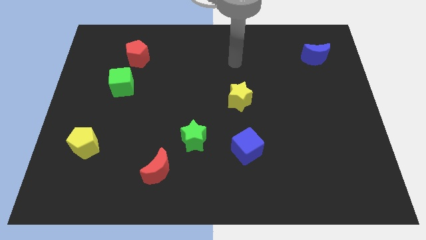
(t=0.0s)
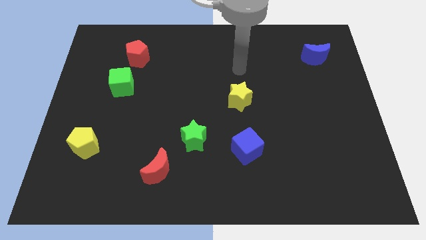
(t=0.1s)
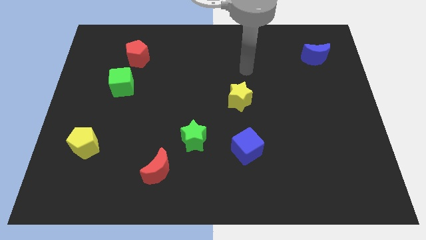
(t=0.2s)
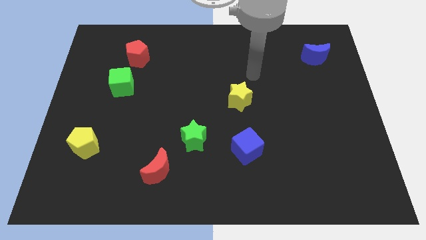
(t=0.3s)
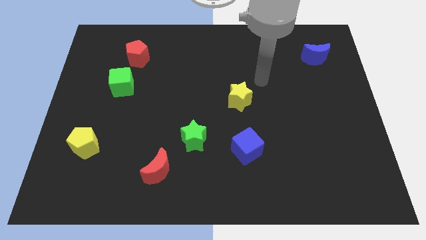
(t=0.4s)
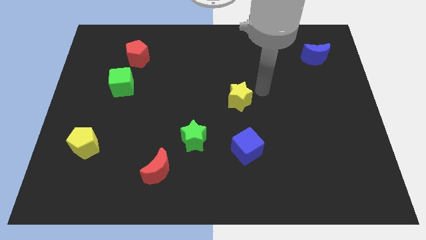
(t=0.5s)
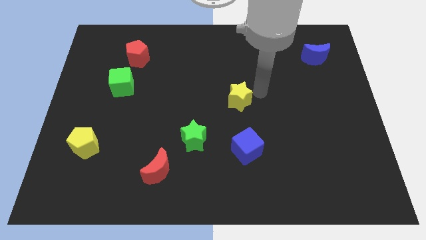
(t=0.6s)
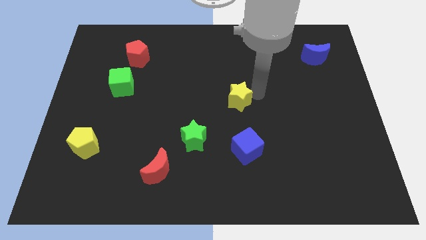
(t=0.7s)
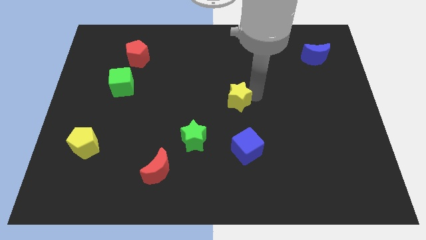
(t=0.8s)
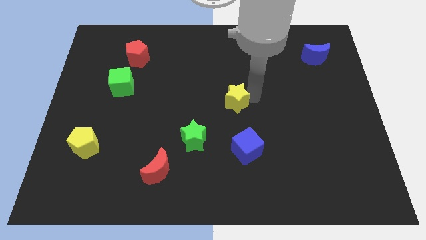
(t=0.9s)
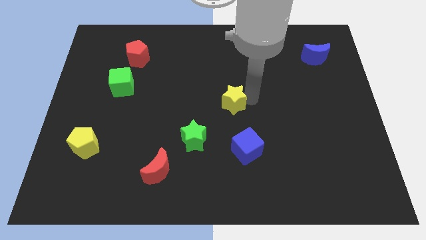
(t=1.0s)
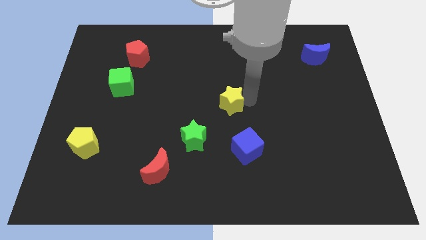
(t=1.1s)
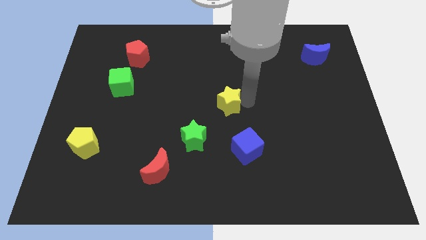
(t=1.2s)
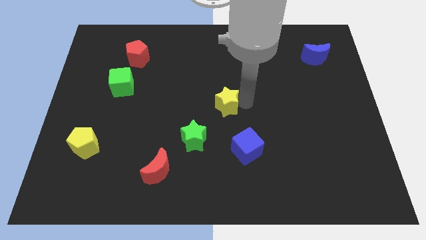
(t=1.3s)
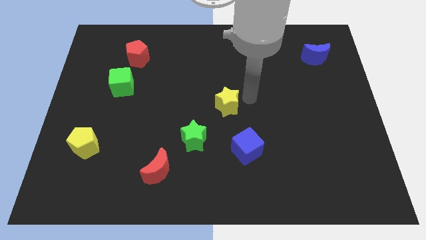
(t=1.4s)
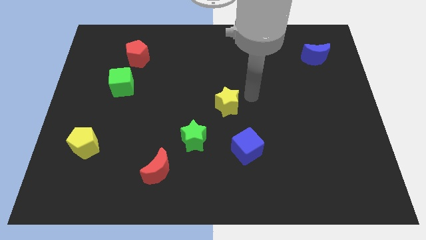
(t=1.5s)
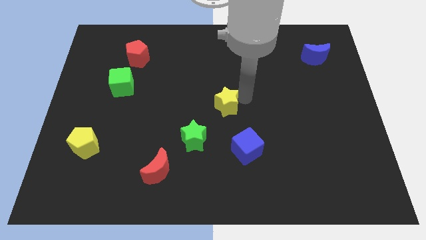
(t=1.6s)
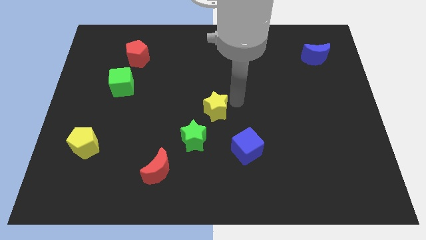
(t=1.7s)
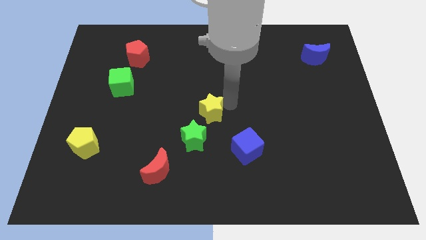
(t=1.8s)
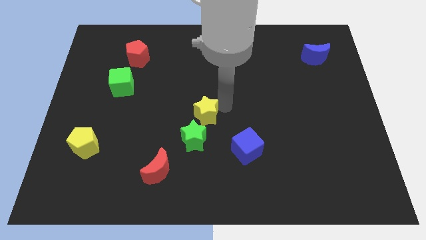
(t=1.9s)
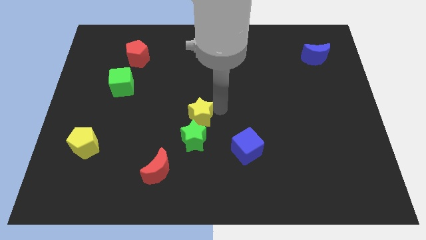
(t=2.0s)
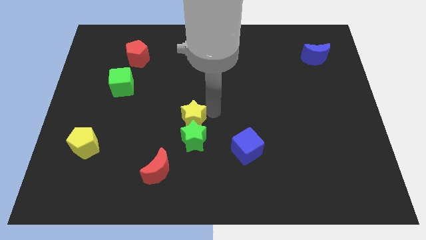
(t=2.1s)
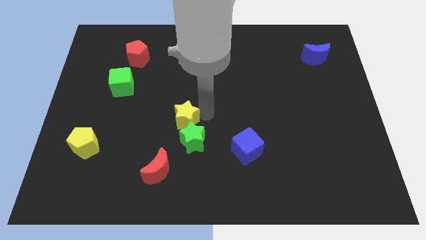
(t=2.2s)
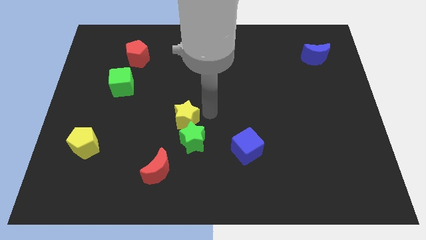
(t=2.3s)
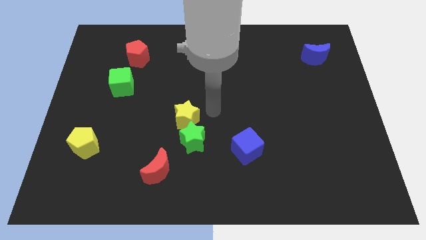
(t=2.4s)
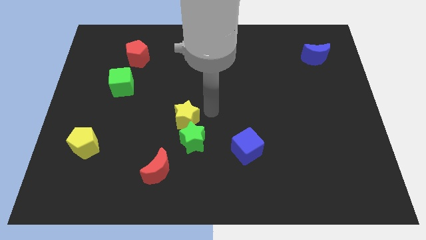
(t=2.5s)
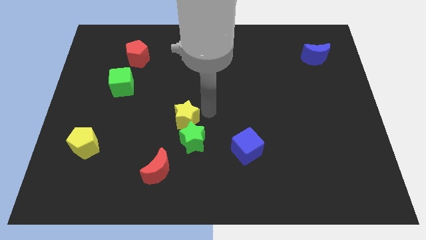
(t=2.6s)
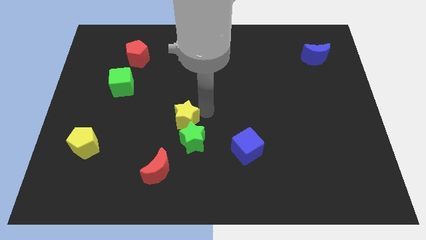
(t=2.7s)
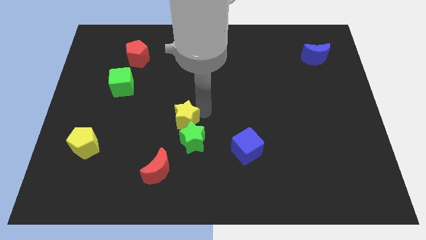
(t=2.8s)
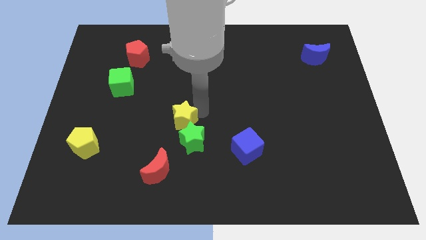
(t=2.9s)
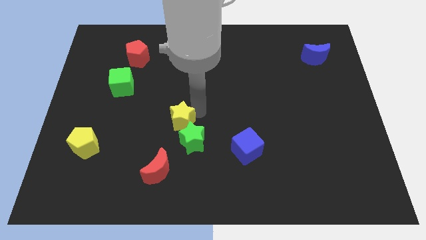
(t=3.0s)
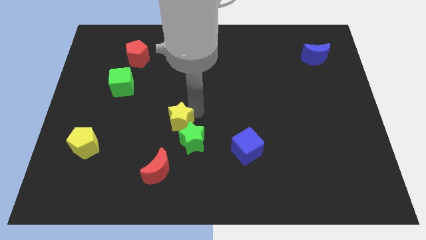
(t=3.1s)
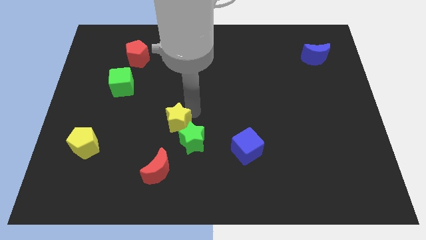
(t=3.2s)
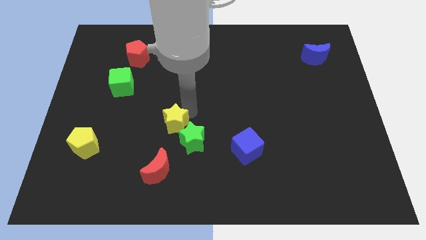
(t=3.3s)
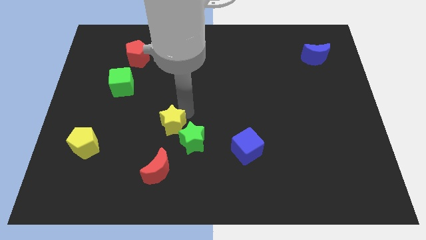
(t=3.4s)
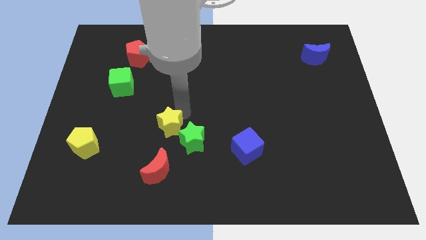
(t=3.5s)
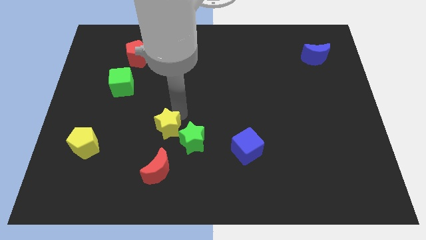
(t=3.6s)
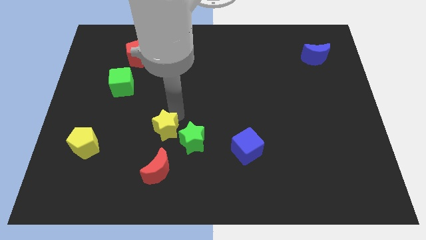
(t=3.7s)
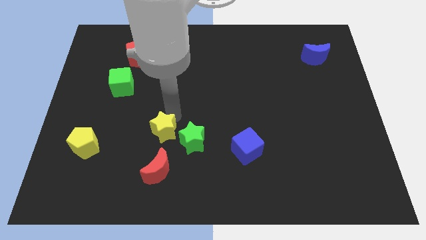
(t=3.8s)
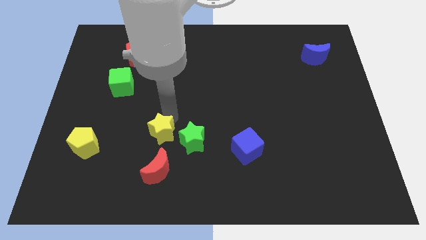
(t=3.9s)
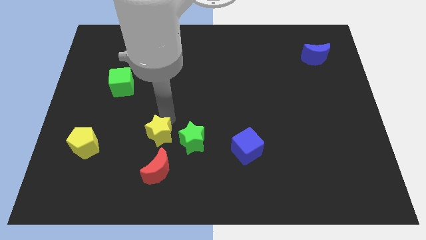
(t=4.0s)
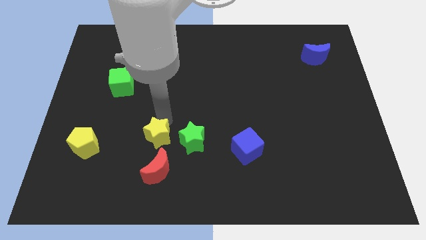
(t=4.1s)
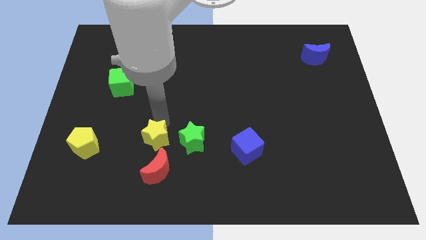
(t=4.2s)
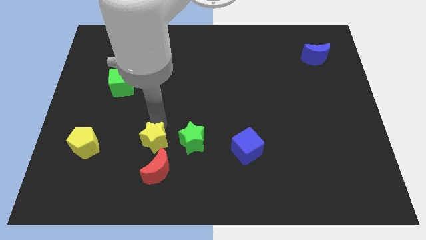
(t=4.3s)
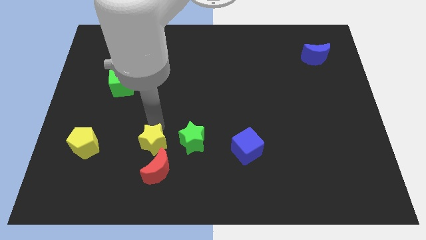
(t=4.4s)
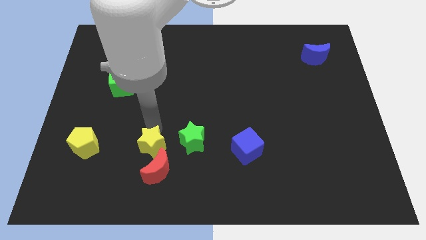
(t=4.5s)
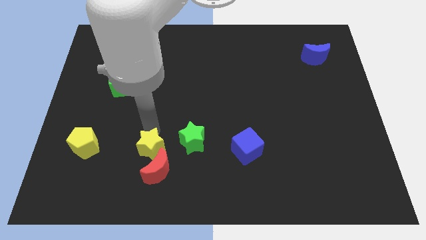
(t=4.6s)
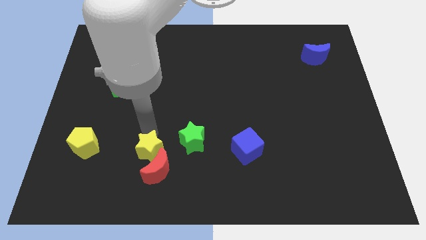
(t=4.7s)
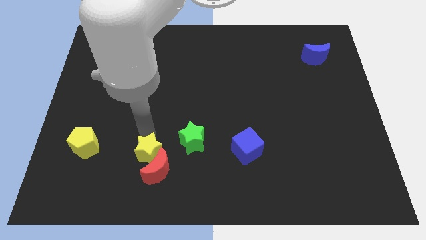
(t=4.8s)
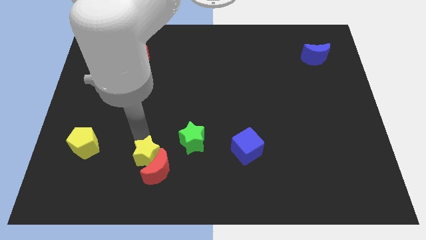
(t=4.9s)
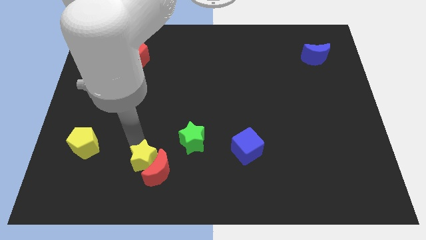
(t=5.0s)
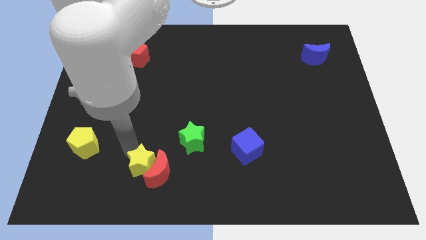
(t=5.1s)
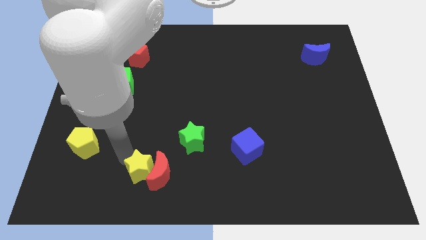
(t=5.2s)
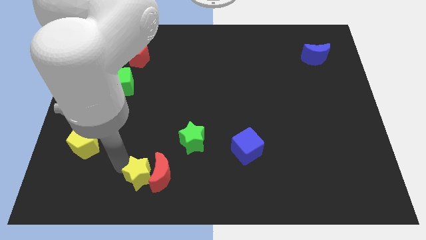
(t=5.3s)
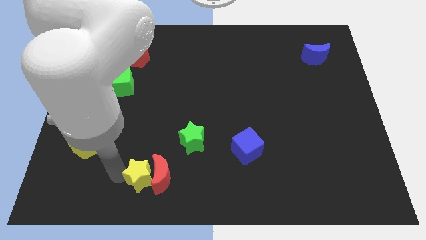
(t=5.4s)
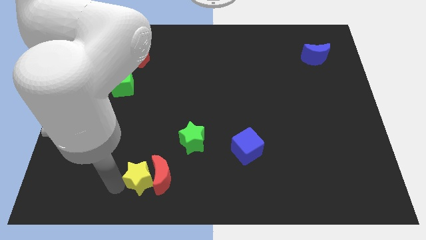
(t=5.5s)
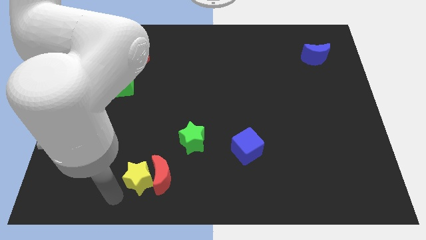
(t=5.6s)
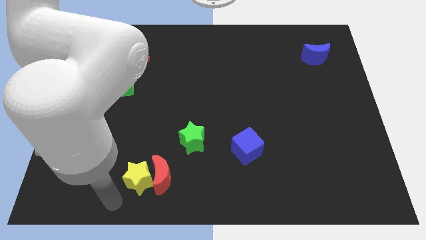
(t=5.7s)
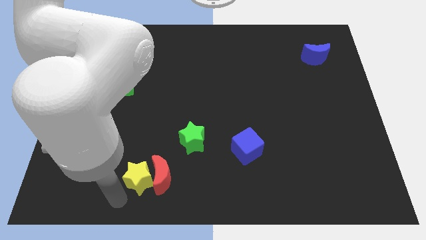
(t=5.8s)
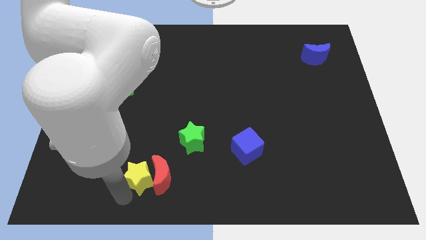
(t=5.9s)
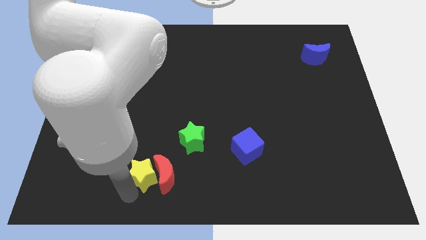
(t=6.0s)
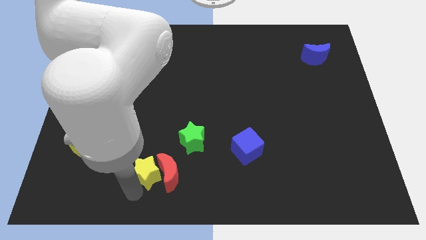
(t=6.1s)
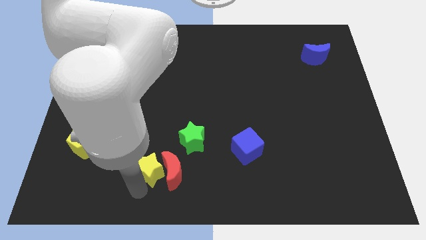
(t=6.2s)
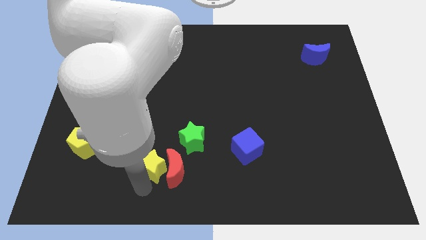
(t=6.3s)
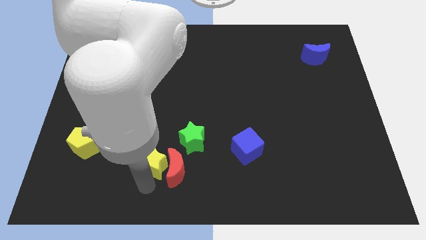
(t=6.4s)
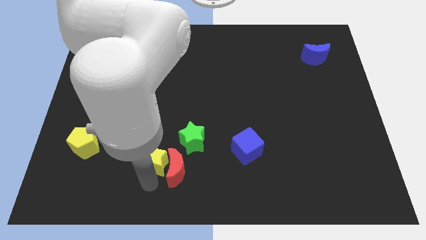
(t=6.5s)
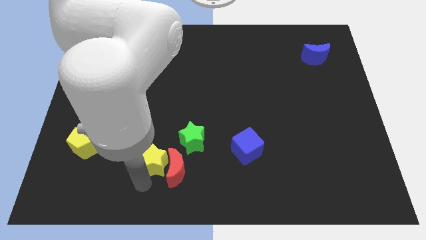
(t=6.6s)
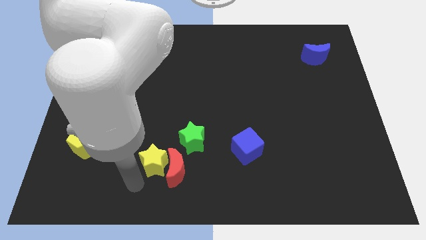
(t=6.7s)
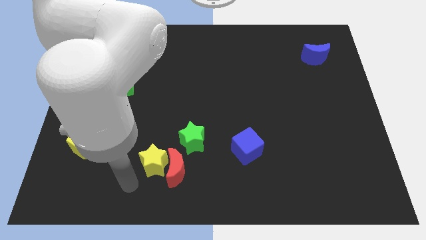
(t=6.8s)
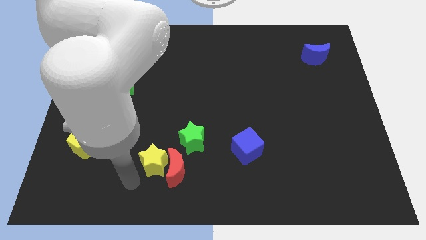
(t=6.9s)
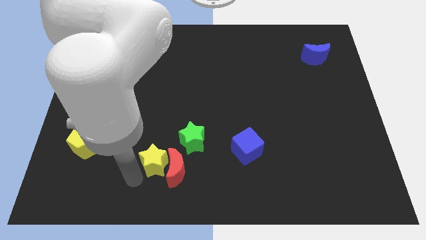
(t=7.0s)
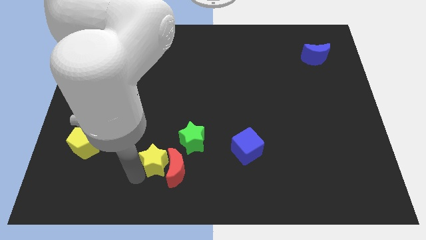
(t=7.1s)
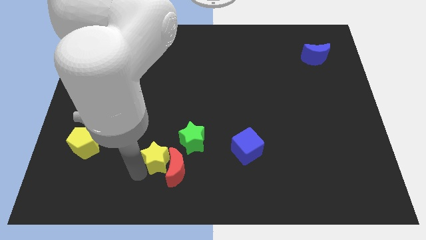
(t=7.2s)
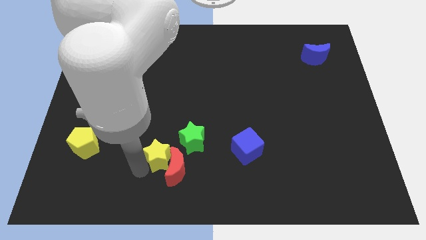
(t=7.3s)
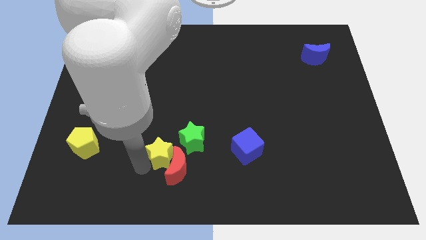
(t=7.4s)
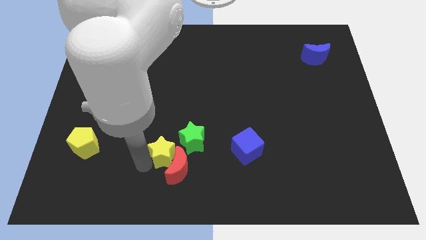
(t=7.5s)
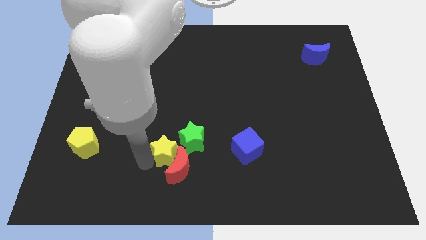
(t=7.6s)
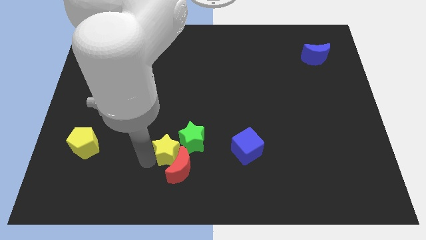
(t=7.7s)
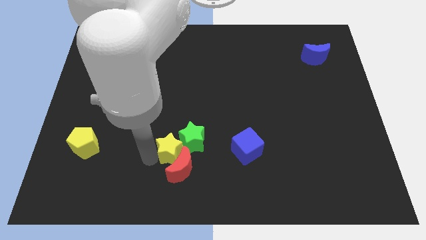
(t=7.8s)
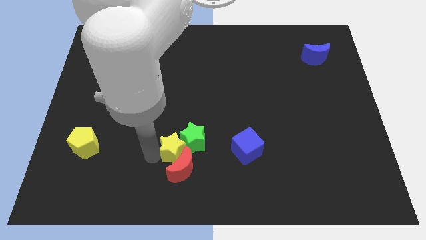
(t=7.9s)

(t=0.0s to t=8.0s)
move the yellow star just left of the blue cube

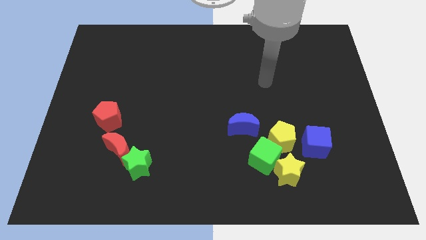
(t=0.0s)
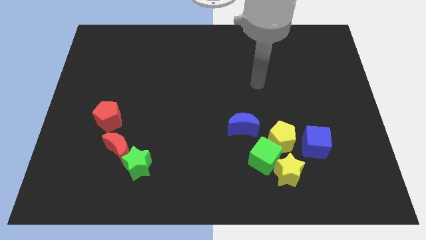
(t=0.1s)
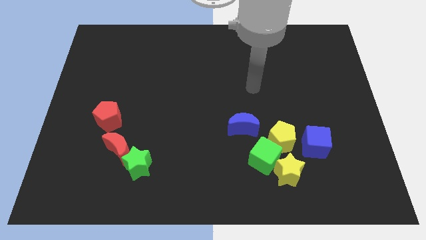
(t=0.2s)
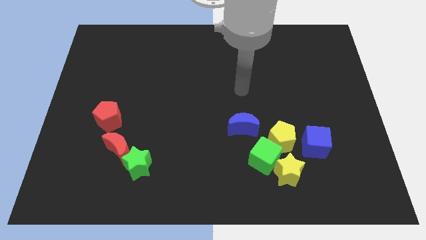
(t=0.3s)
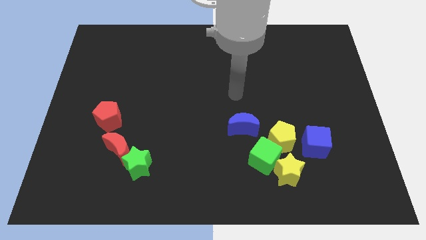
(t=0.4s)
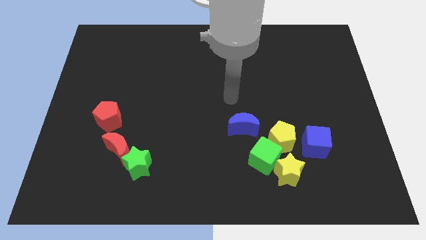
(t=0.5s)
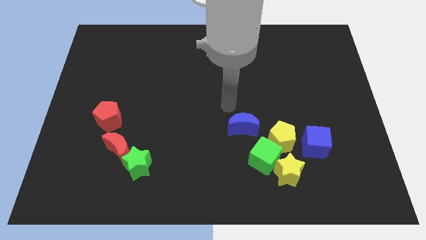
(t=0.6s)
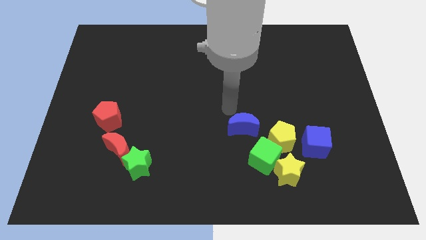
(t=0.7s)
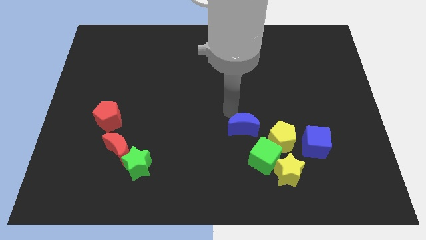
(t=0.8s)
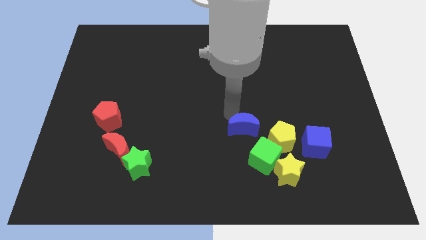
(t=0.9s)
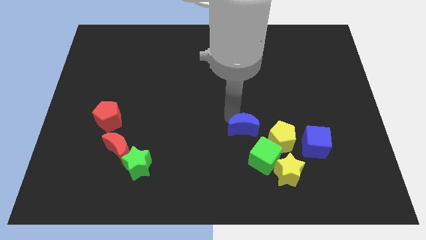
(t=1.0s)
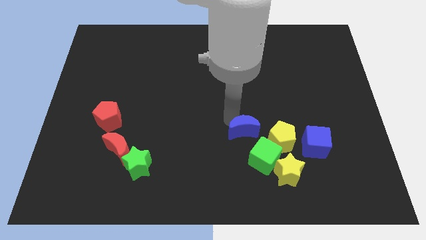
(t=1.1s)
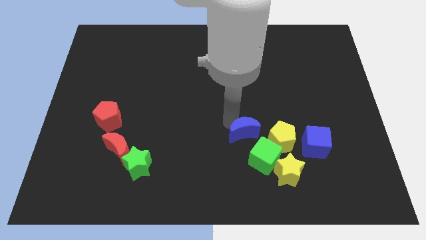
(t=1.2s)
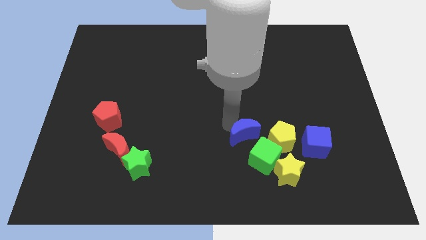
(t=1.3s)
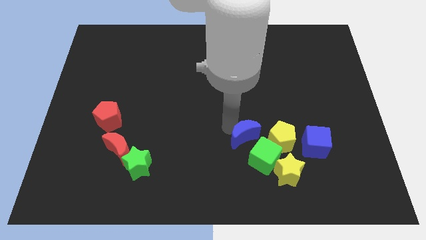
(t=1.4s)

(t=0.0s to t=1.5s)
put the blue moon to the top left of the yellow star
